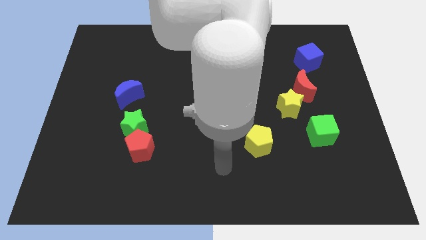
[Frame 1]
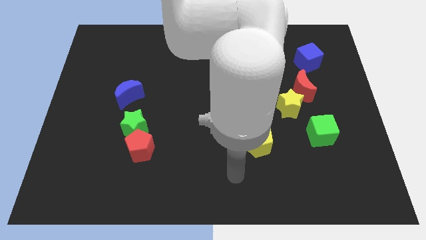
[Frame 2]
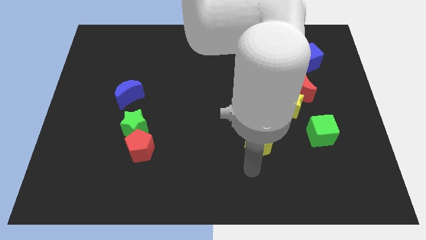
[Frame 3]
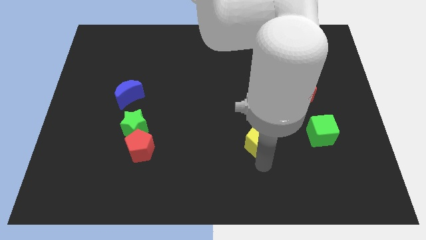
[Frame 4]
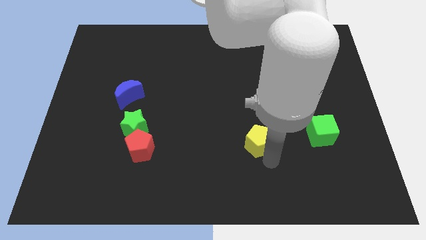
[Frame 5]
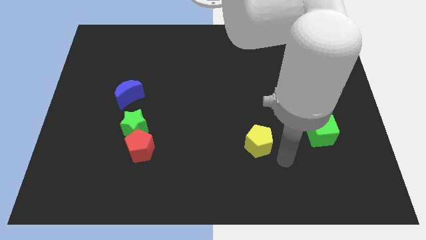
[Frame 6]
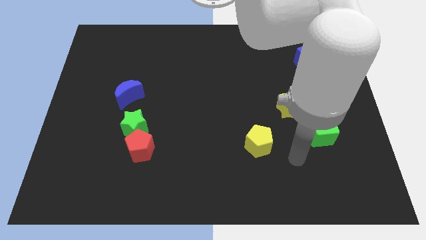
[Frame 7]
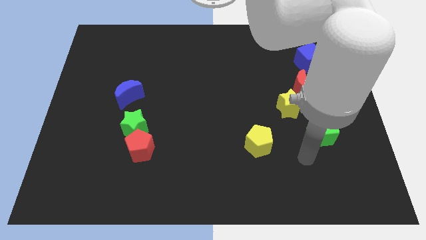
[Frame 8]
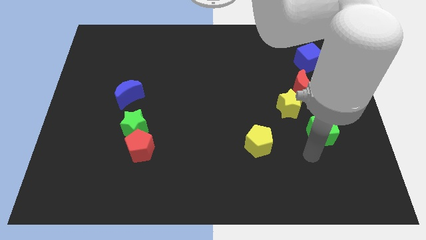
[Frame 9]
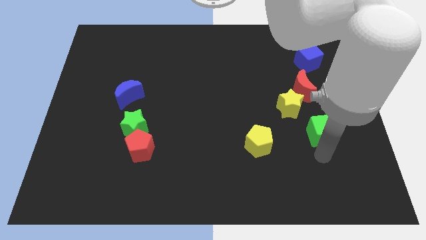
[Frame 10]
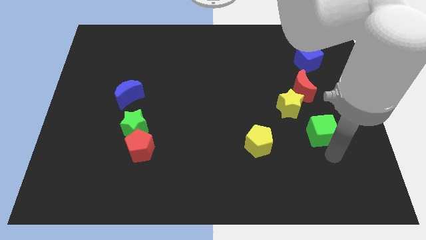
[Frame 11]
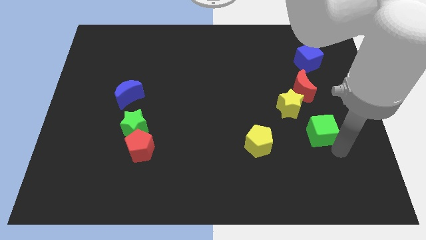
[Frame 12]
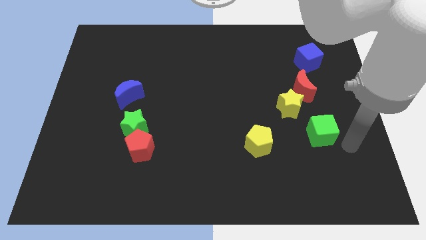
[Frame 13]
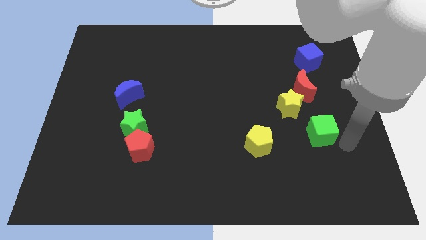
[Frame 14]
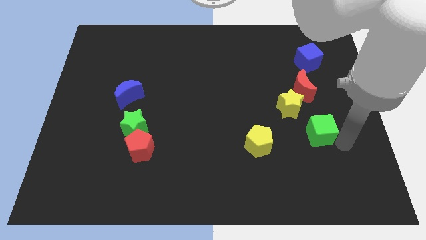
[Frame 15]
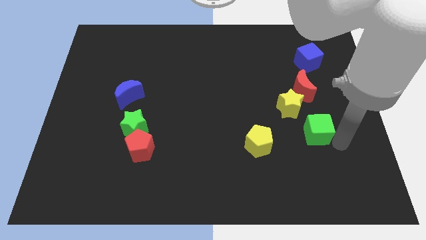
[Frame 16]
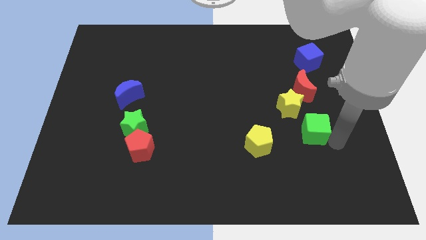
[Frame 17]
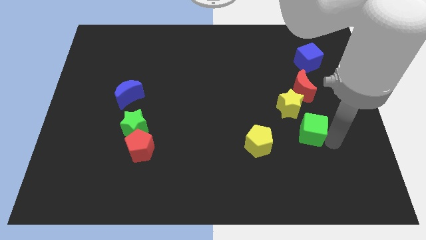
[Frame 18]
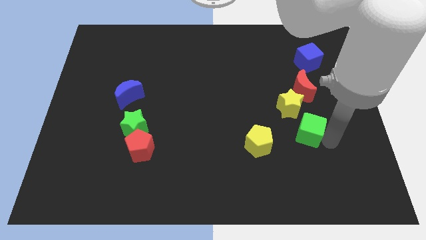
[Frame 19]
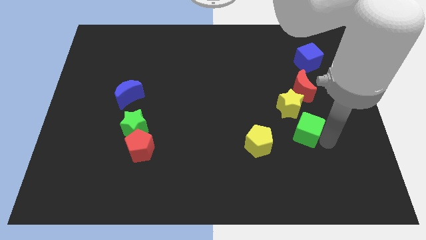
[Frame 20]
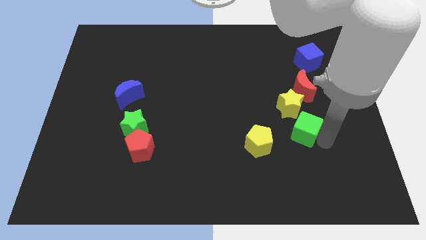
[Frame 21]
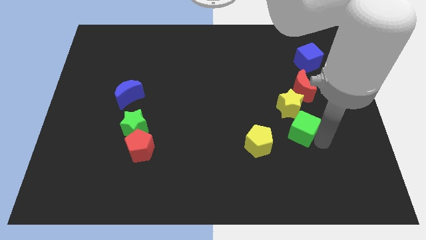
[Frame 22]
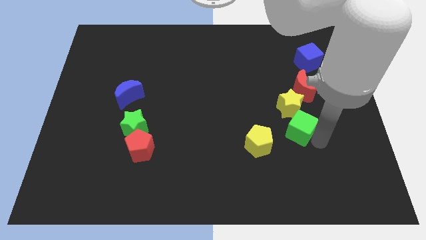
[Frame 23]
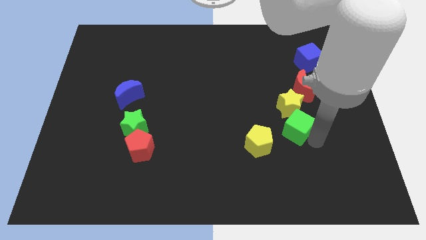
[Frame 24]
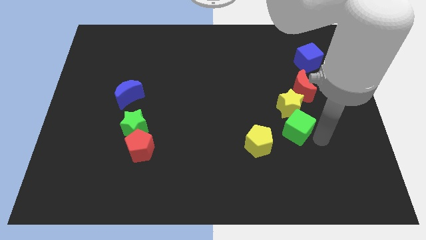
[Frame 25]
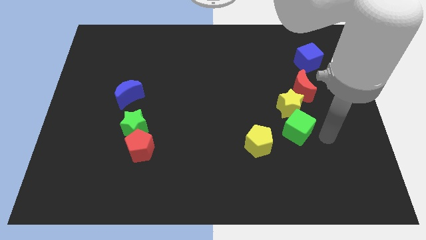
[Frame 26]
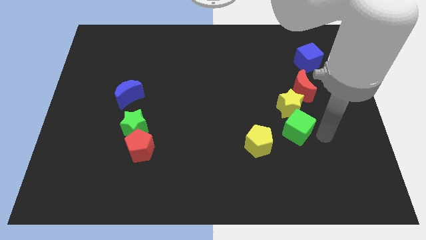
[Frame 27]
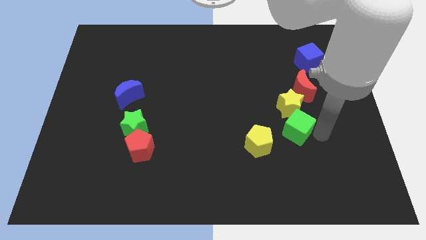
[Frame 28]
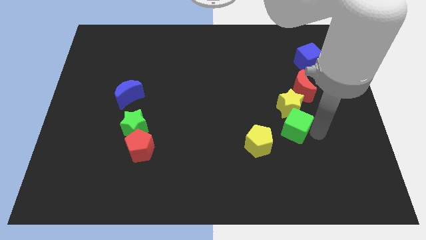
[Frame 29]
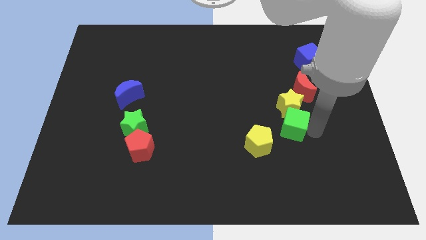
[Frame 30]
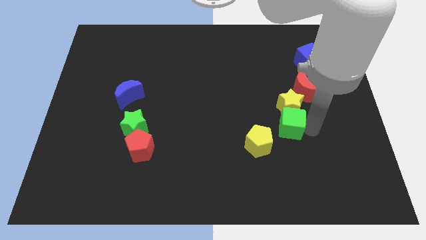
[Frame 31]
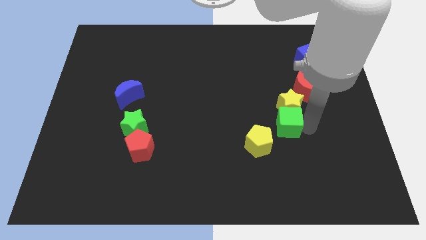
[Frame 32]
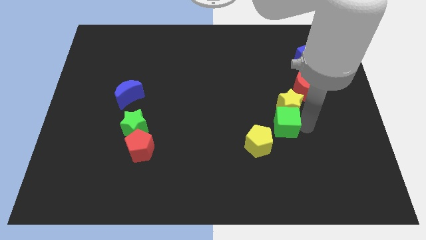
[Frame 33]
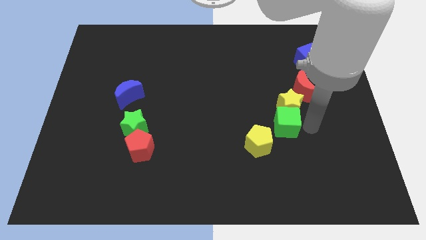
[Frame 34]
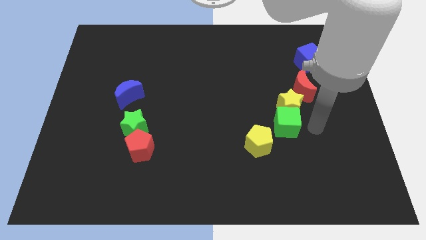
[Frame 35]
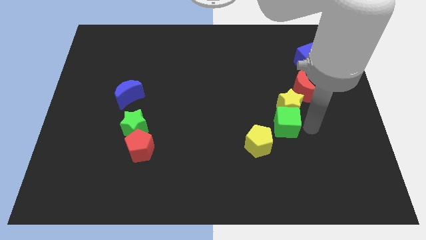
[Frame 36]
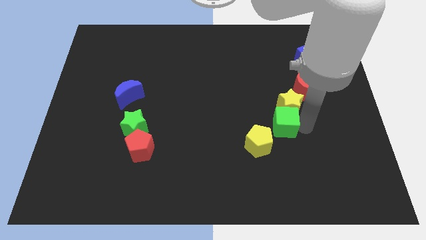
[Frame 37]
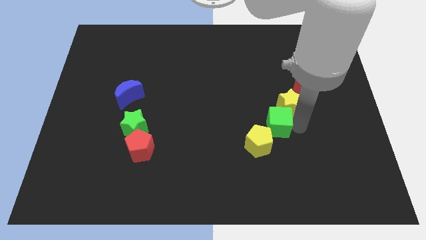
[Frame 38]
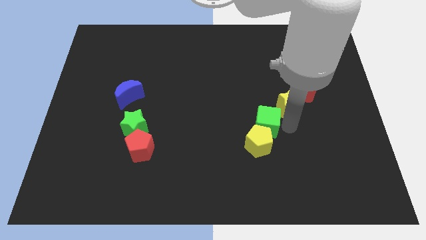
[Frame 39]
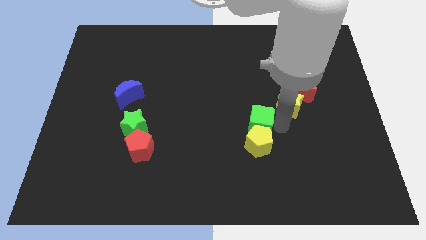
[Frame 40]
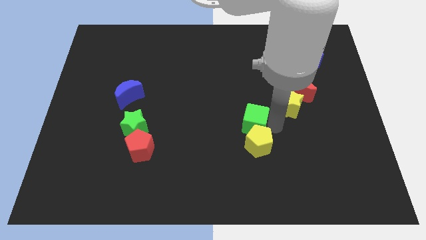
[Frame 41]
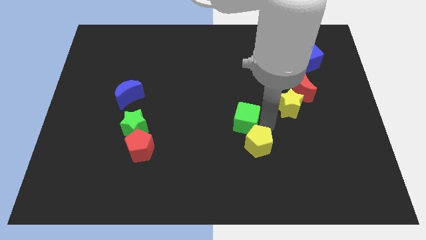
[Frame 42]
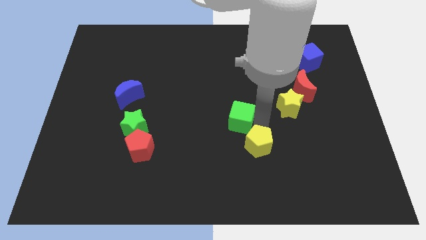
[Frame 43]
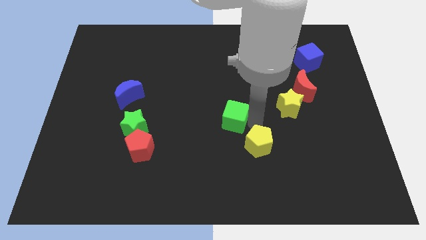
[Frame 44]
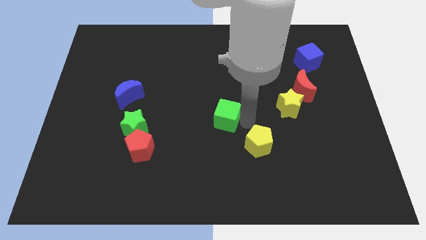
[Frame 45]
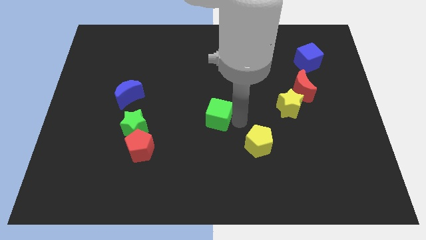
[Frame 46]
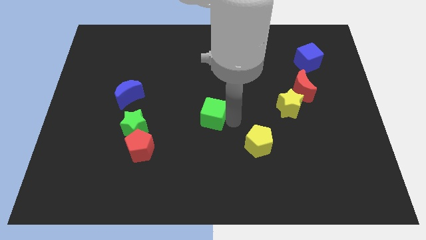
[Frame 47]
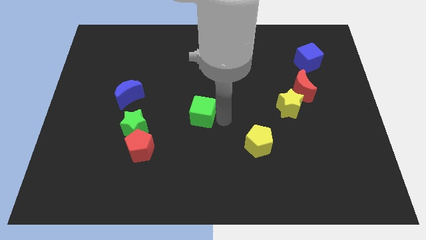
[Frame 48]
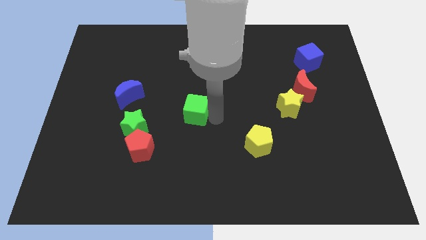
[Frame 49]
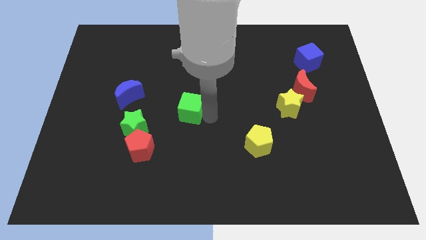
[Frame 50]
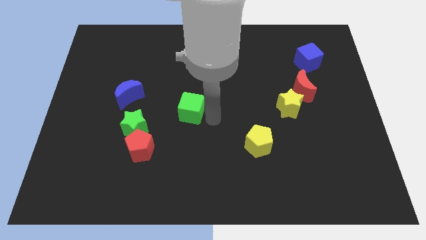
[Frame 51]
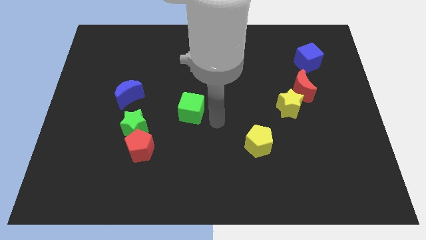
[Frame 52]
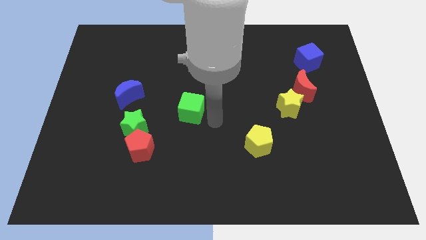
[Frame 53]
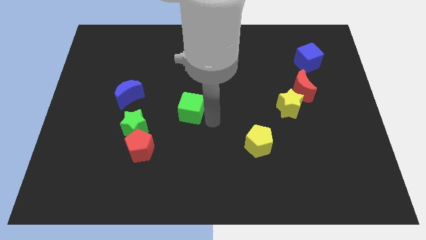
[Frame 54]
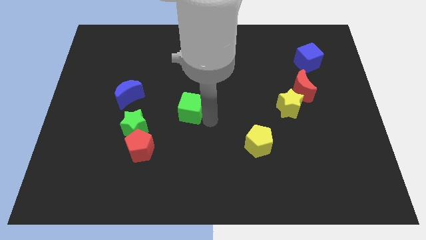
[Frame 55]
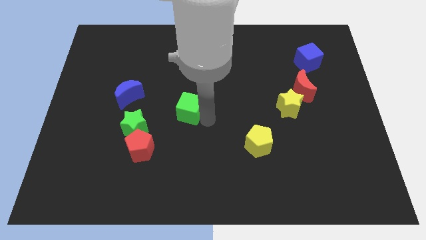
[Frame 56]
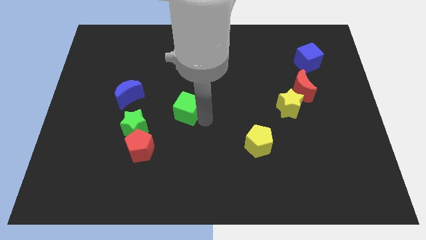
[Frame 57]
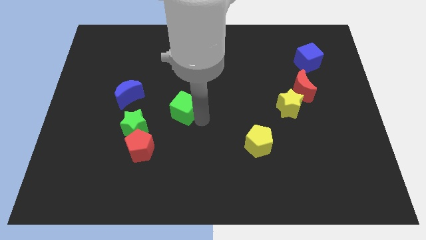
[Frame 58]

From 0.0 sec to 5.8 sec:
slide the green cube to the top right side of the green star

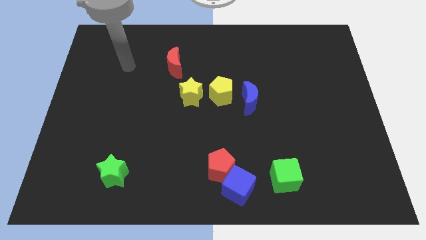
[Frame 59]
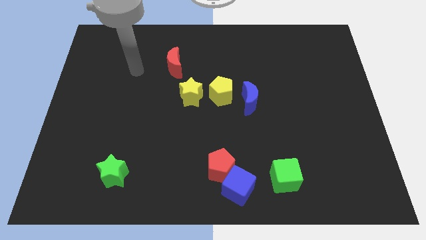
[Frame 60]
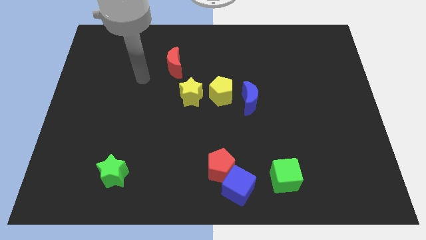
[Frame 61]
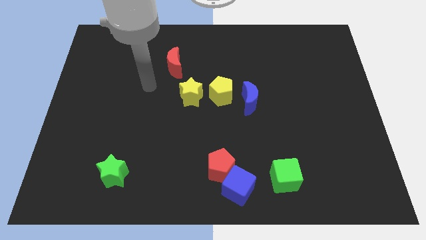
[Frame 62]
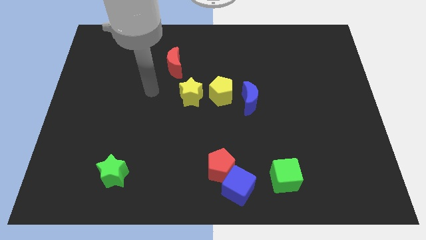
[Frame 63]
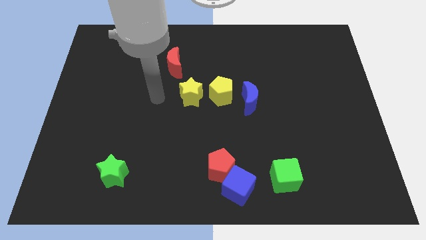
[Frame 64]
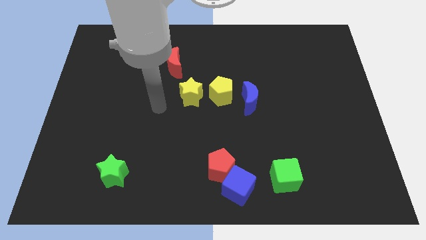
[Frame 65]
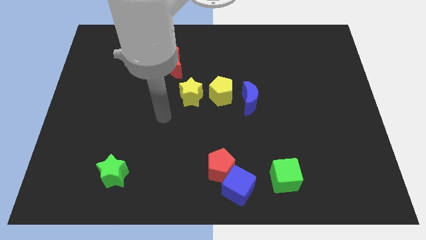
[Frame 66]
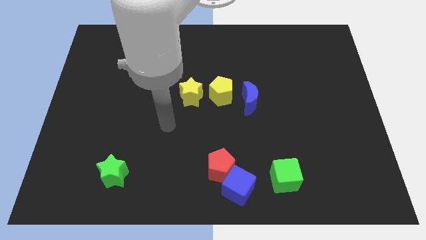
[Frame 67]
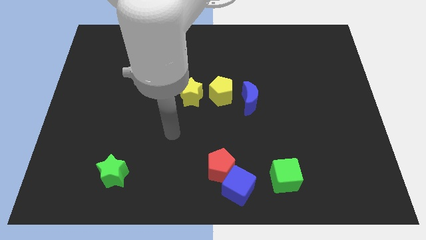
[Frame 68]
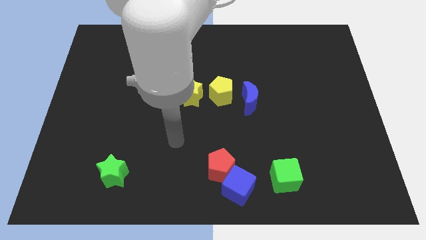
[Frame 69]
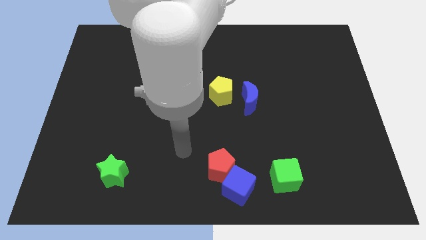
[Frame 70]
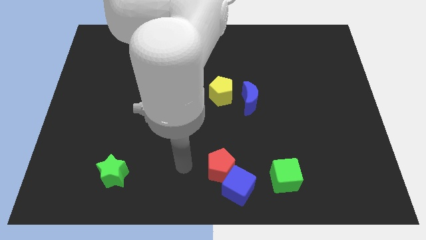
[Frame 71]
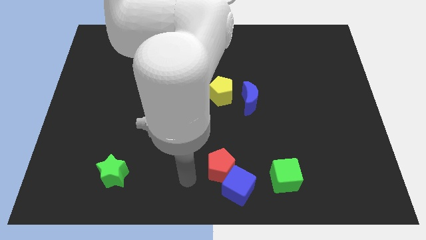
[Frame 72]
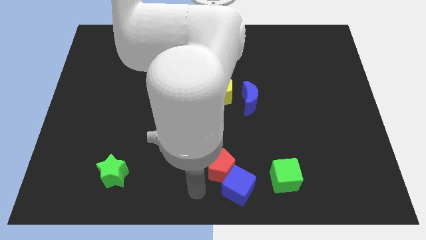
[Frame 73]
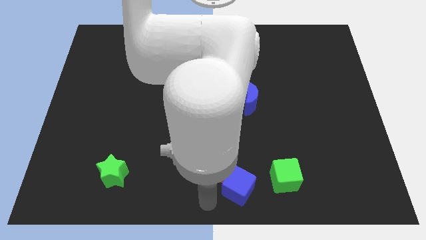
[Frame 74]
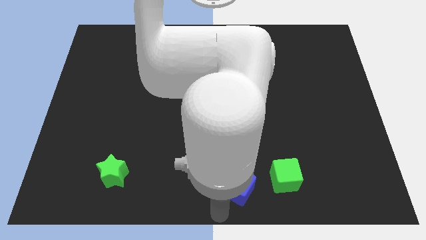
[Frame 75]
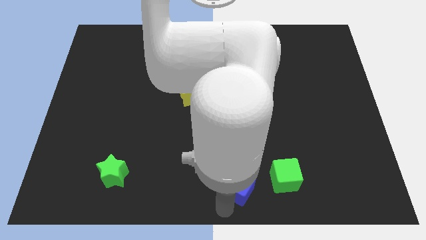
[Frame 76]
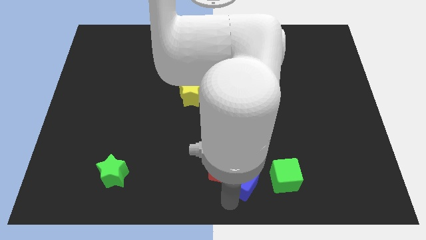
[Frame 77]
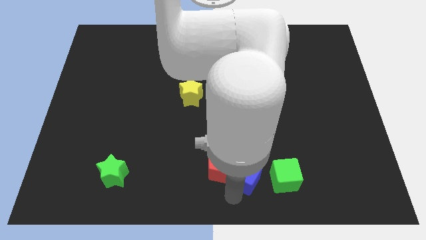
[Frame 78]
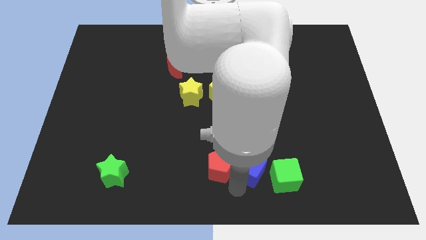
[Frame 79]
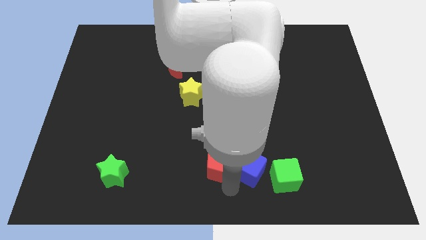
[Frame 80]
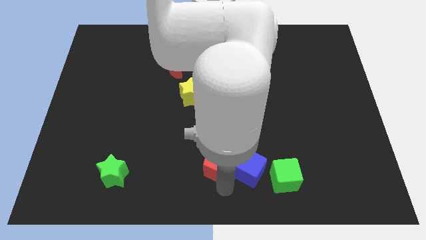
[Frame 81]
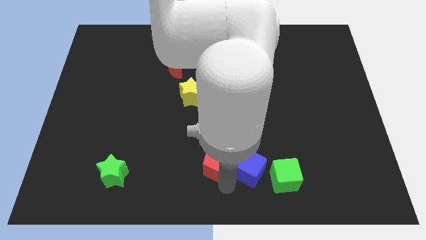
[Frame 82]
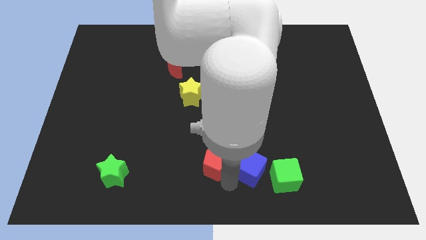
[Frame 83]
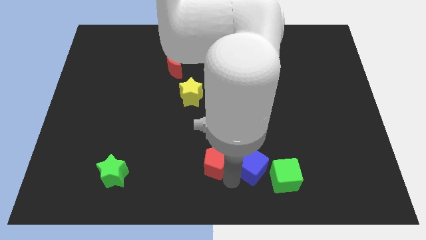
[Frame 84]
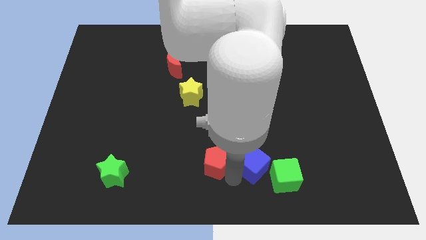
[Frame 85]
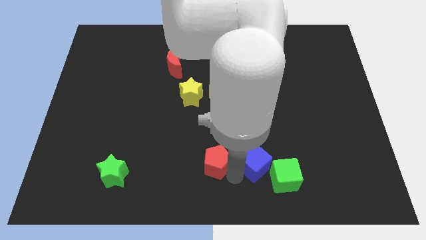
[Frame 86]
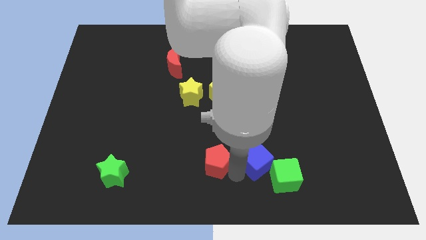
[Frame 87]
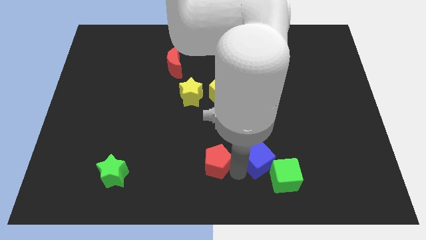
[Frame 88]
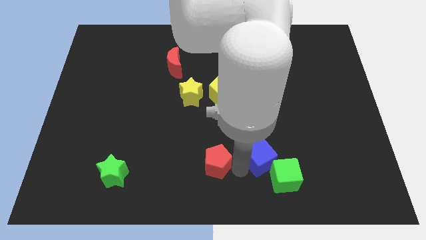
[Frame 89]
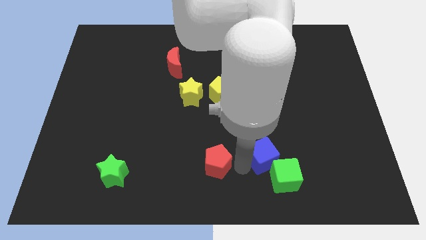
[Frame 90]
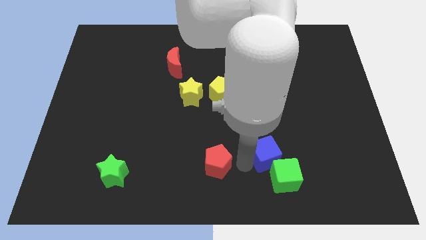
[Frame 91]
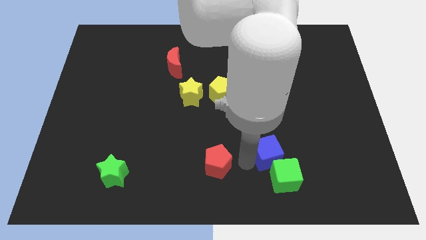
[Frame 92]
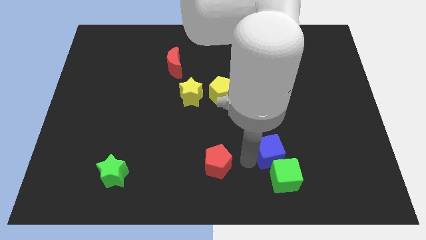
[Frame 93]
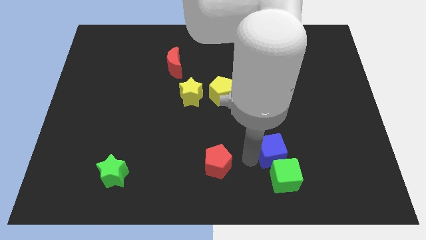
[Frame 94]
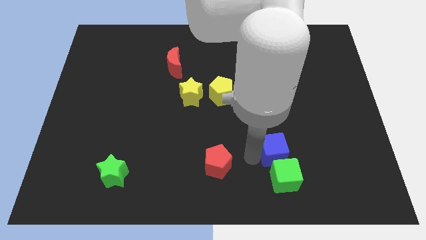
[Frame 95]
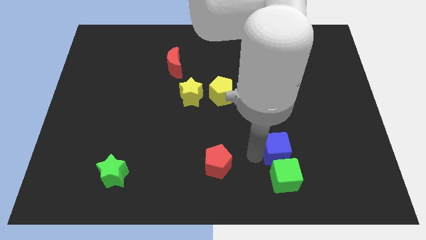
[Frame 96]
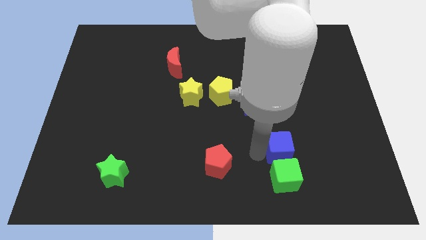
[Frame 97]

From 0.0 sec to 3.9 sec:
push the blue cube to the top right side of the green cube
